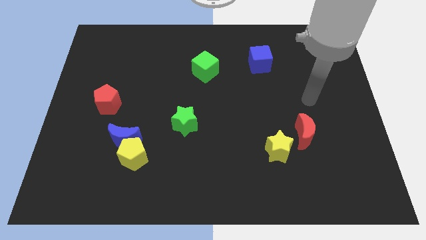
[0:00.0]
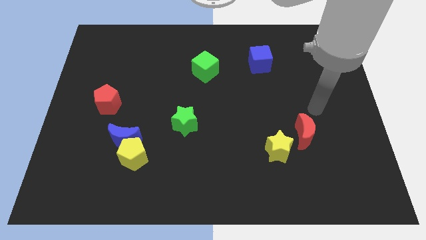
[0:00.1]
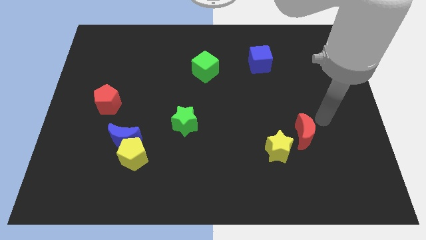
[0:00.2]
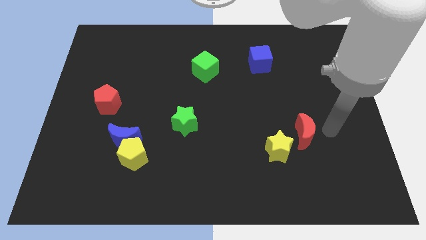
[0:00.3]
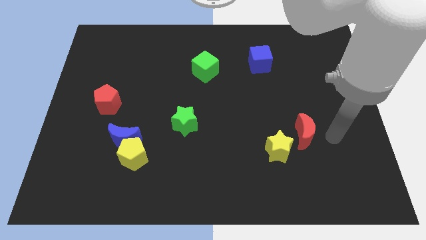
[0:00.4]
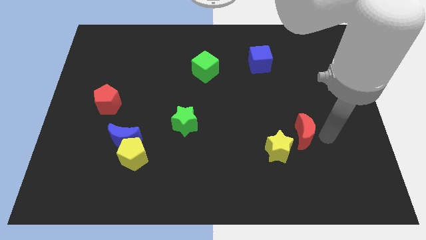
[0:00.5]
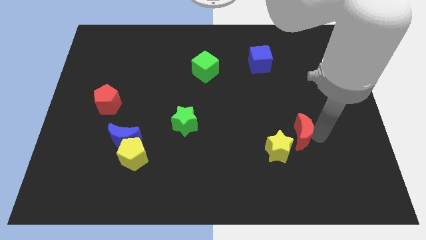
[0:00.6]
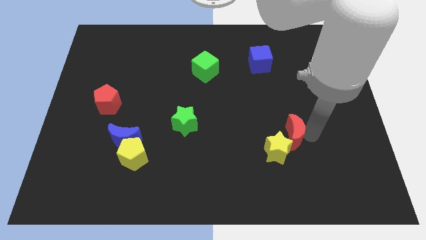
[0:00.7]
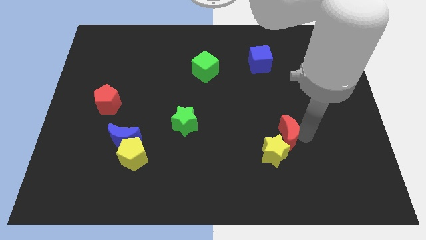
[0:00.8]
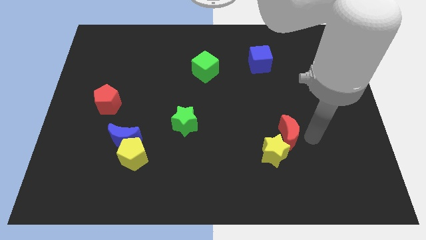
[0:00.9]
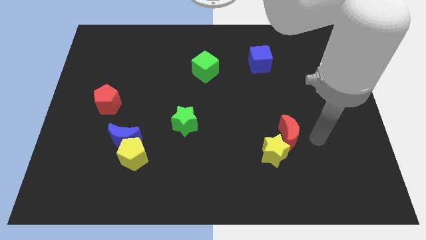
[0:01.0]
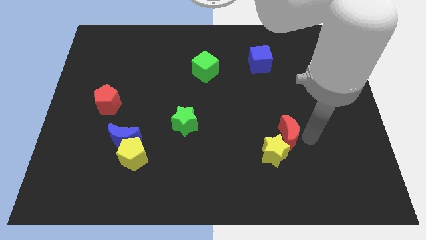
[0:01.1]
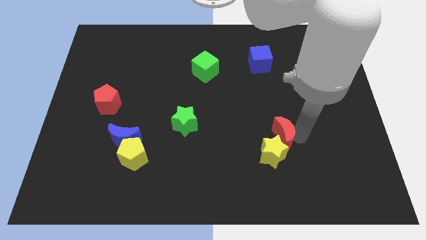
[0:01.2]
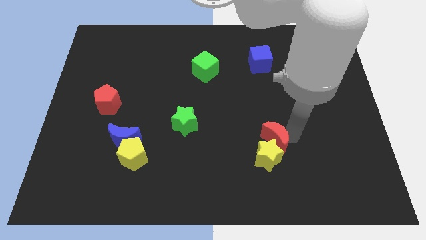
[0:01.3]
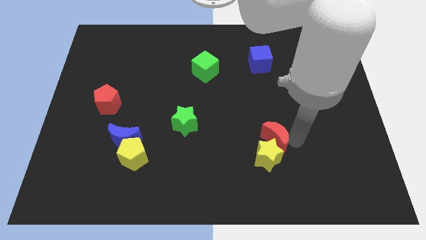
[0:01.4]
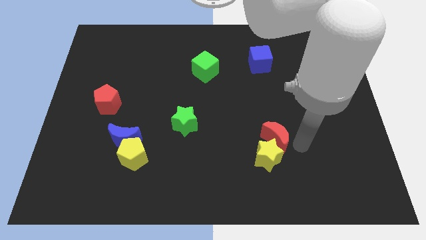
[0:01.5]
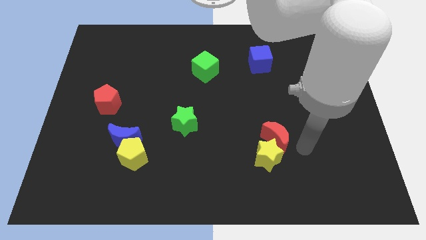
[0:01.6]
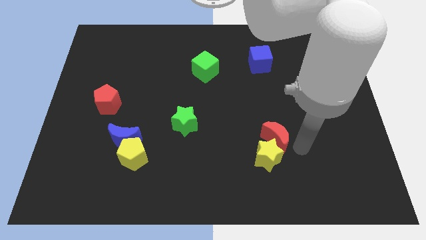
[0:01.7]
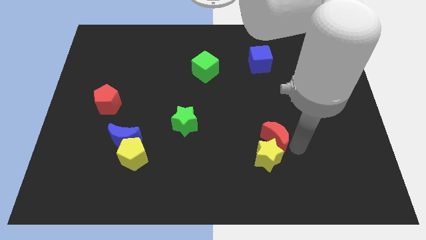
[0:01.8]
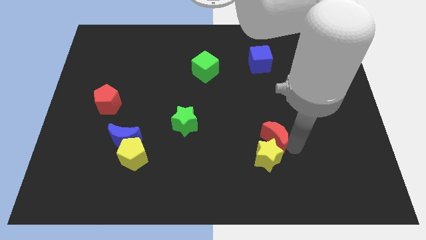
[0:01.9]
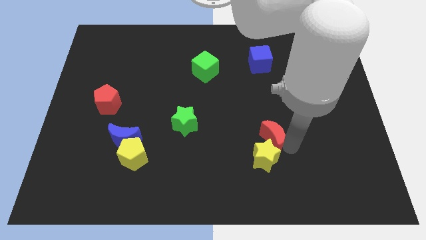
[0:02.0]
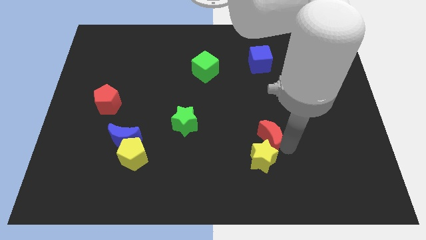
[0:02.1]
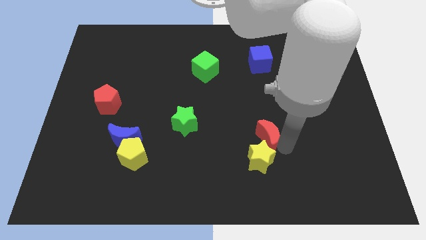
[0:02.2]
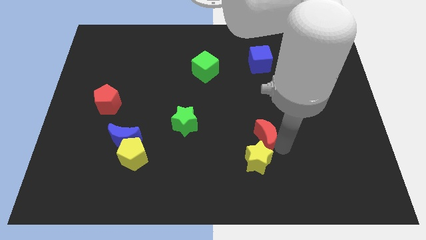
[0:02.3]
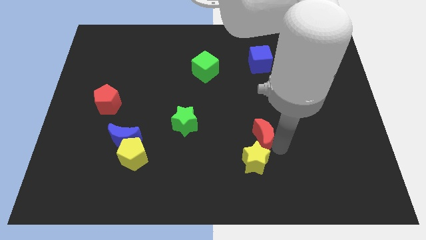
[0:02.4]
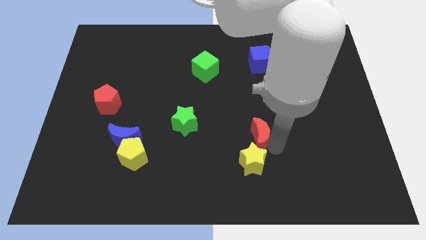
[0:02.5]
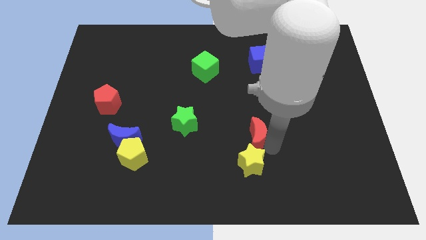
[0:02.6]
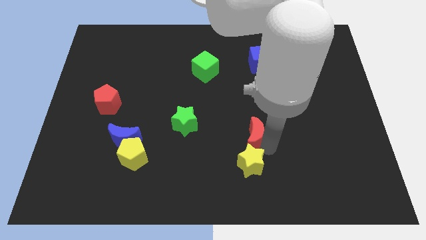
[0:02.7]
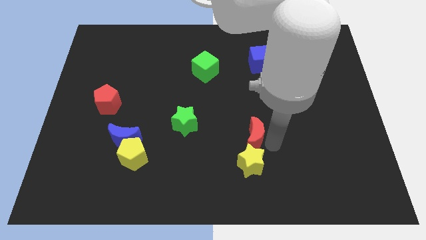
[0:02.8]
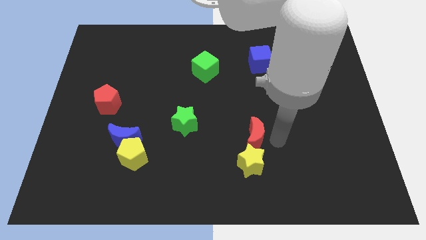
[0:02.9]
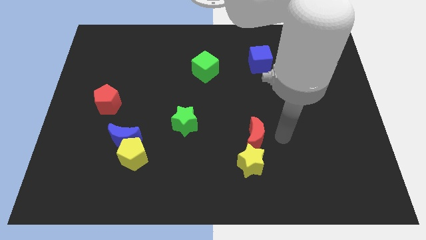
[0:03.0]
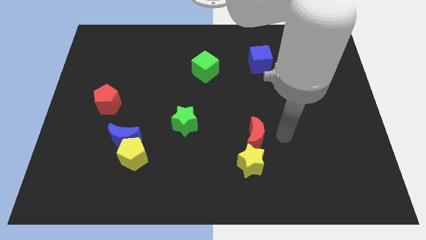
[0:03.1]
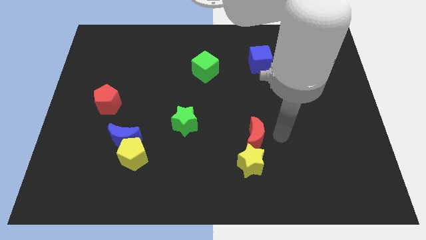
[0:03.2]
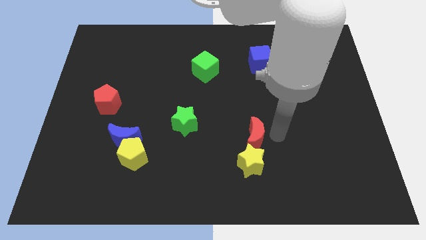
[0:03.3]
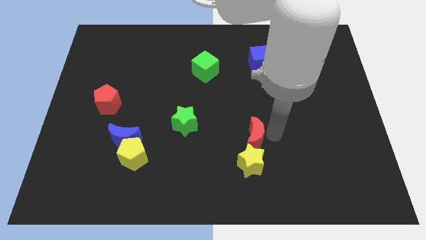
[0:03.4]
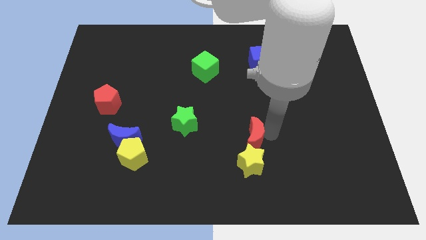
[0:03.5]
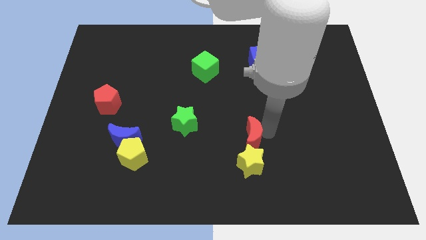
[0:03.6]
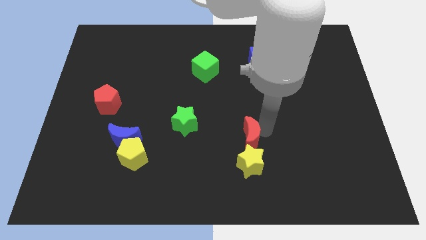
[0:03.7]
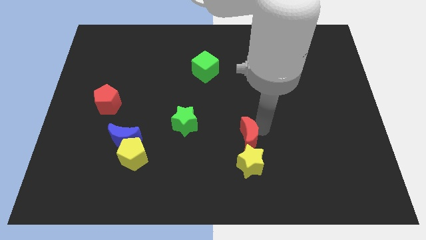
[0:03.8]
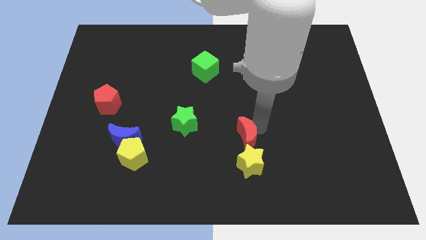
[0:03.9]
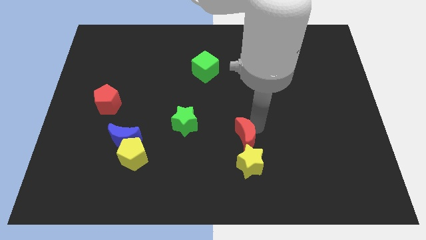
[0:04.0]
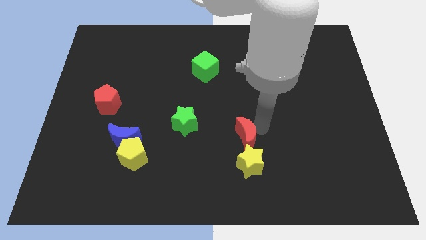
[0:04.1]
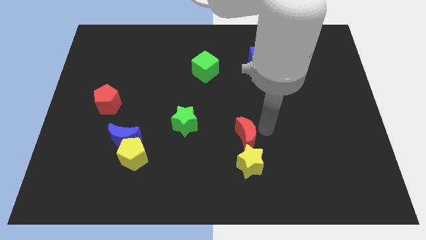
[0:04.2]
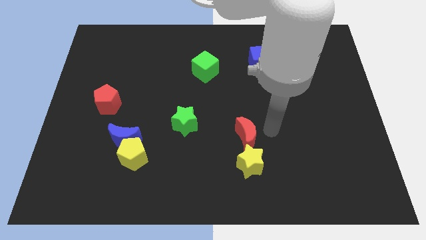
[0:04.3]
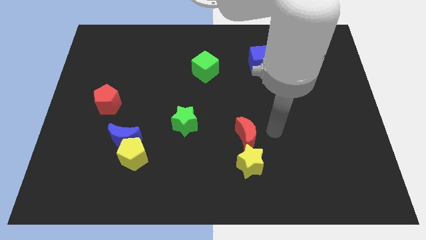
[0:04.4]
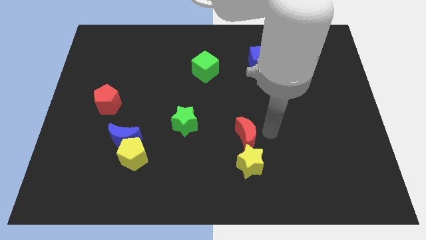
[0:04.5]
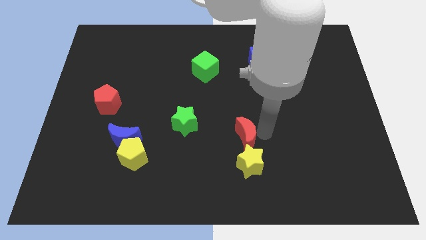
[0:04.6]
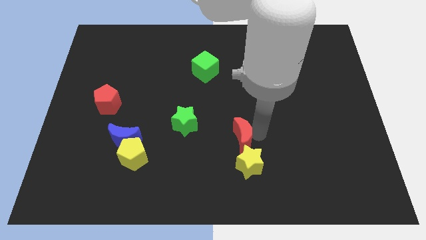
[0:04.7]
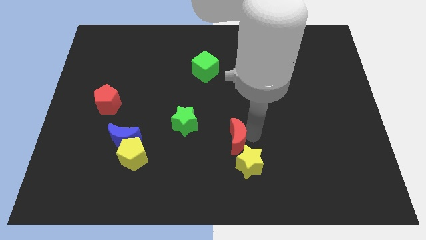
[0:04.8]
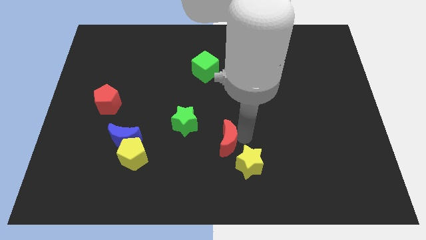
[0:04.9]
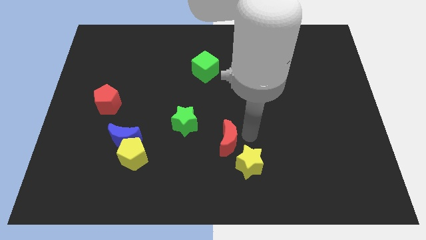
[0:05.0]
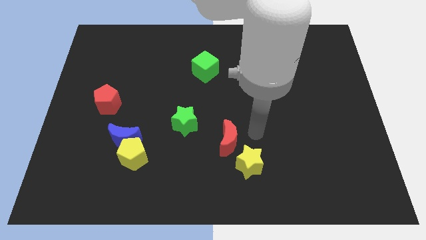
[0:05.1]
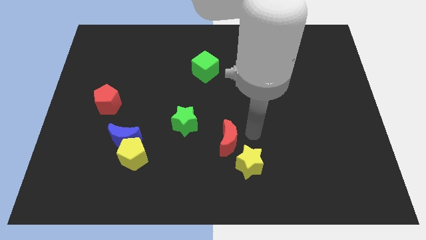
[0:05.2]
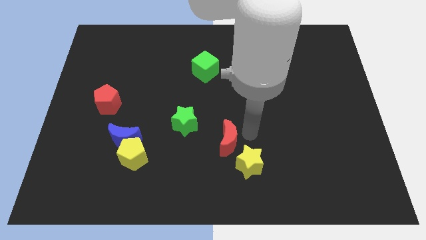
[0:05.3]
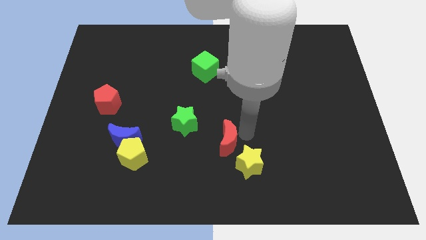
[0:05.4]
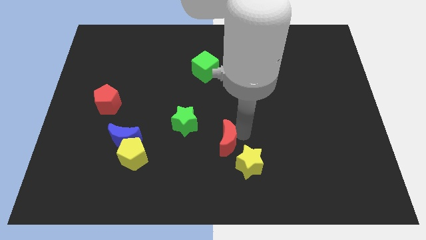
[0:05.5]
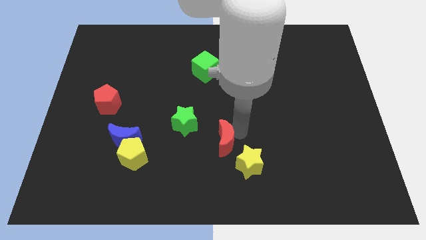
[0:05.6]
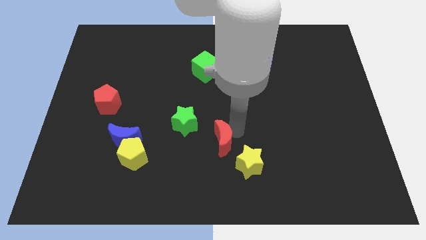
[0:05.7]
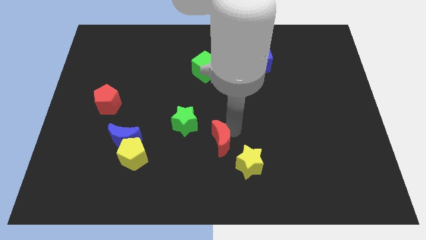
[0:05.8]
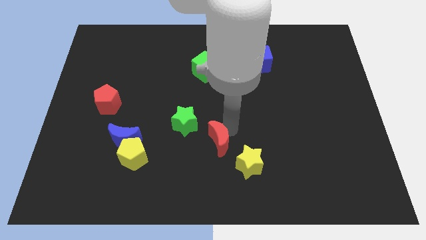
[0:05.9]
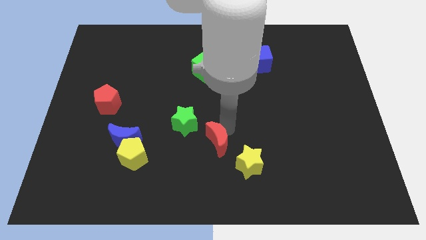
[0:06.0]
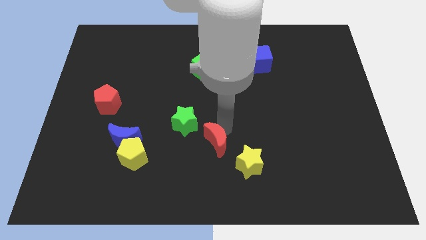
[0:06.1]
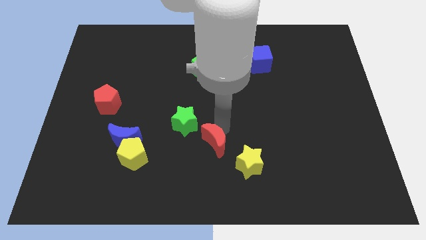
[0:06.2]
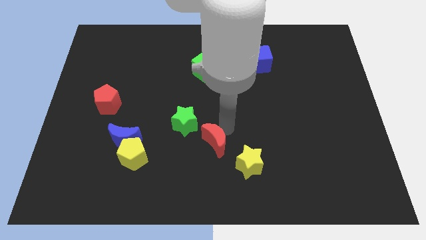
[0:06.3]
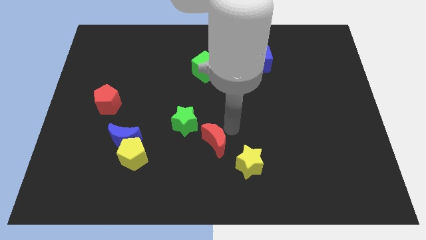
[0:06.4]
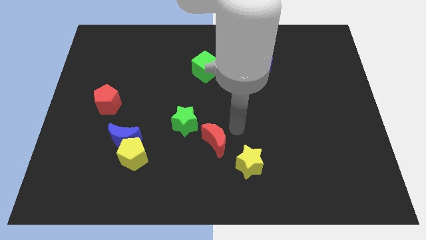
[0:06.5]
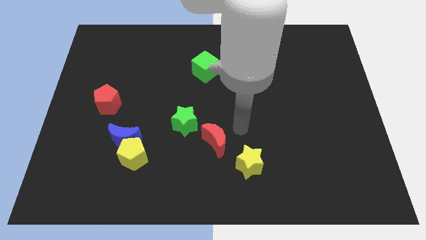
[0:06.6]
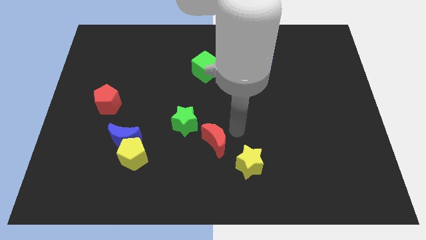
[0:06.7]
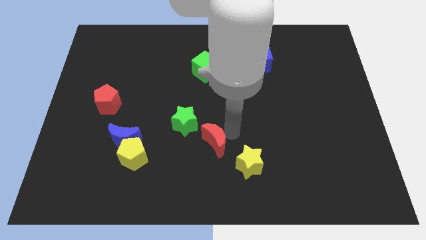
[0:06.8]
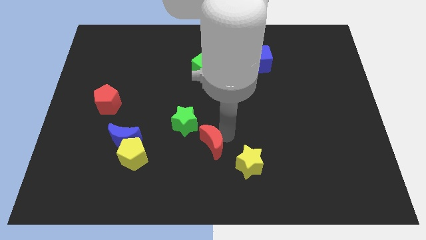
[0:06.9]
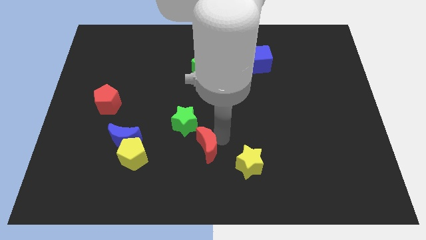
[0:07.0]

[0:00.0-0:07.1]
slide the red moon to the right of the yellow pentagon
